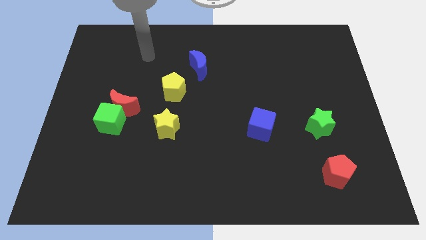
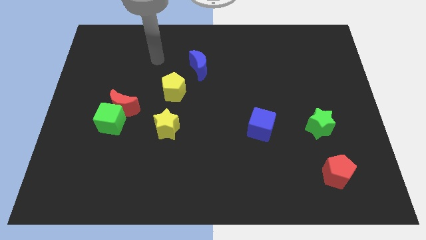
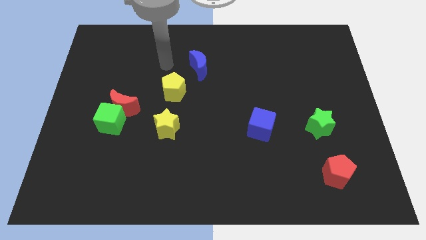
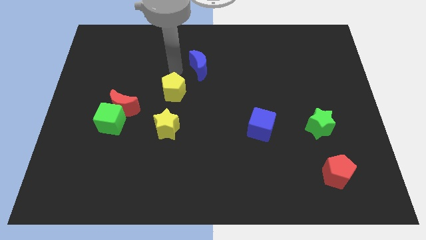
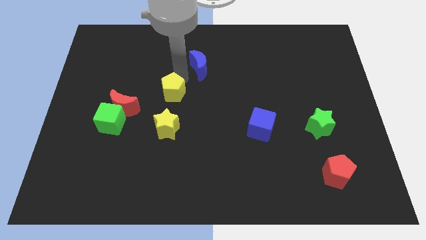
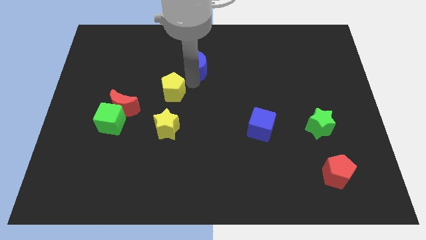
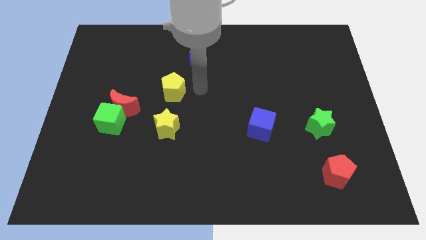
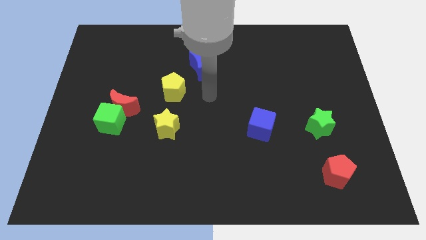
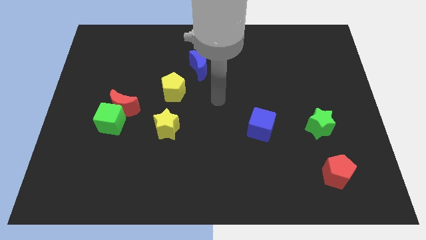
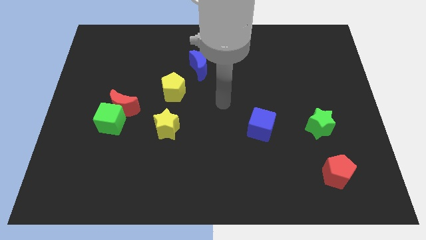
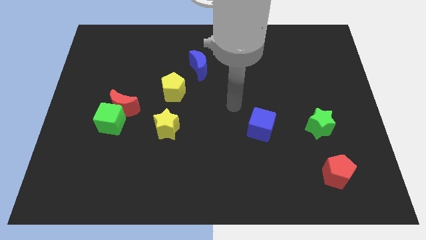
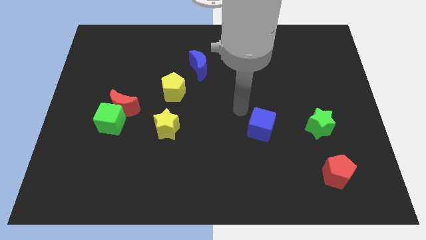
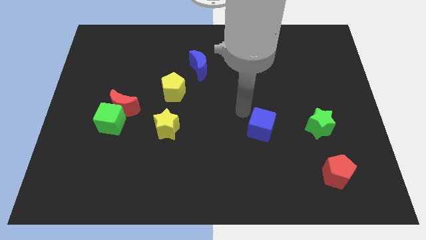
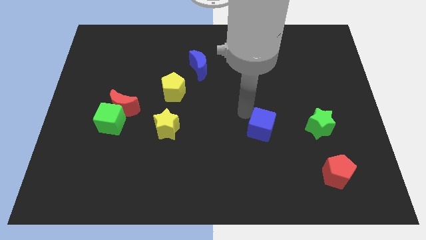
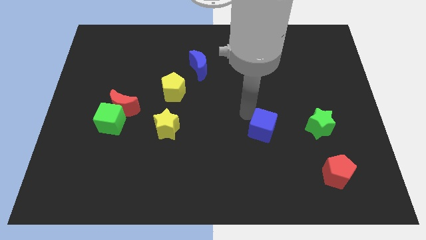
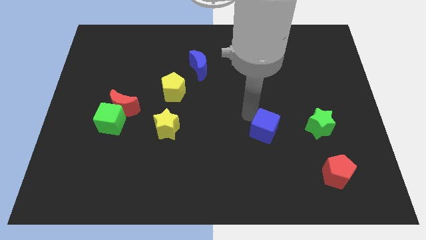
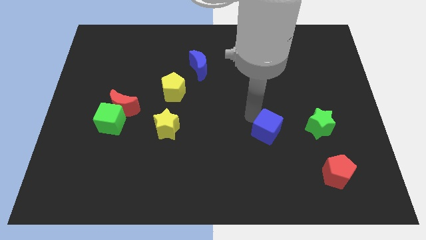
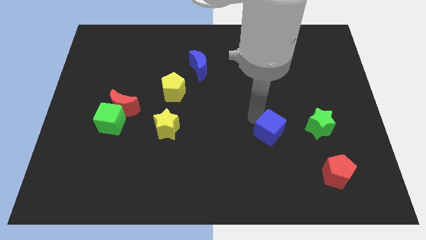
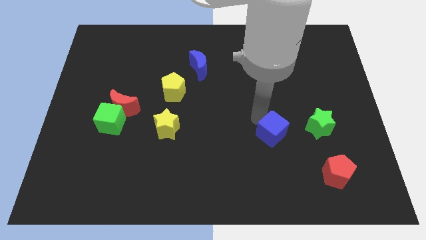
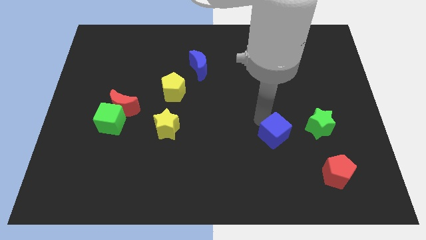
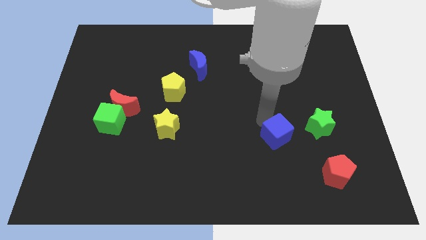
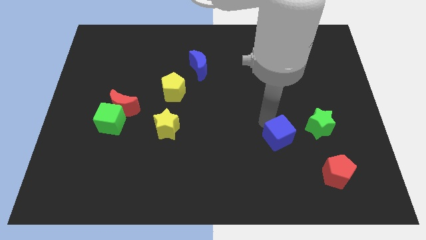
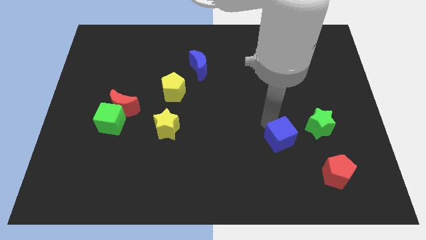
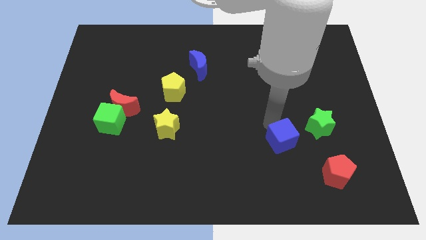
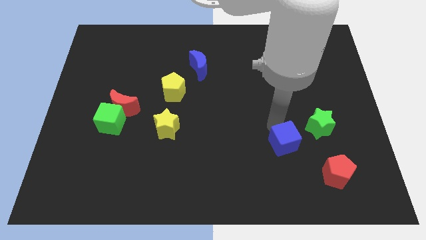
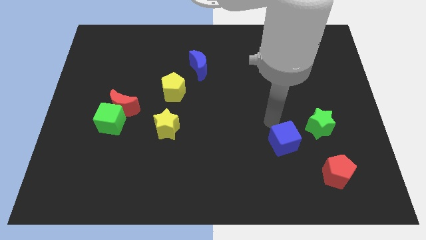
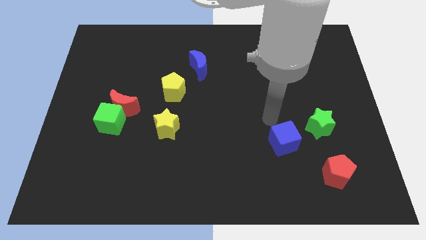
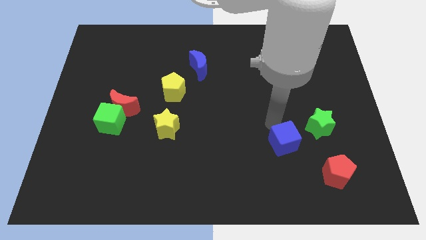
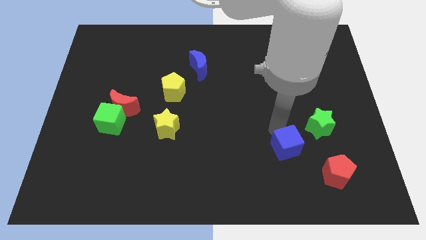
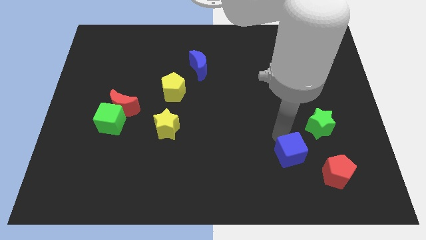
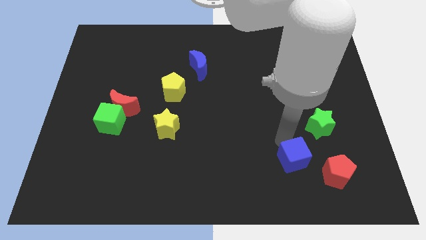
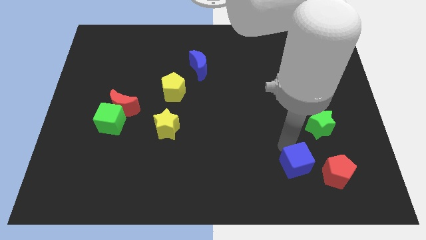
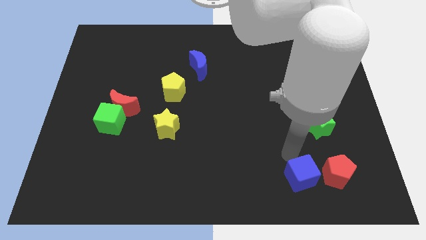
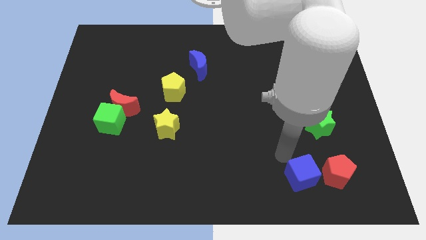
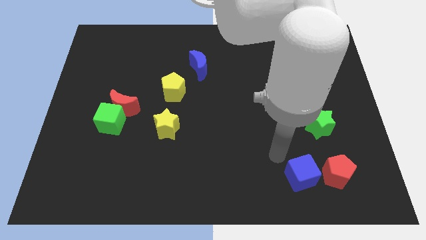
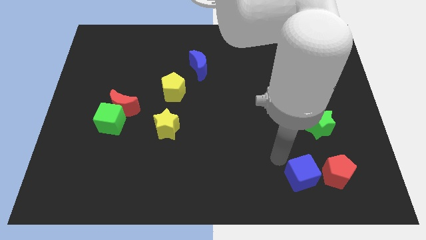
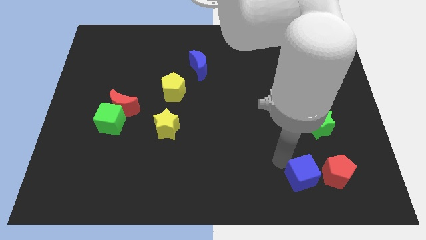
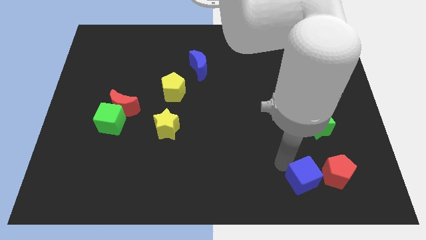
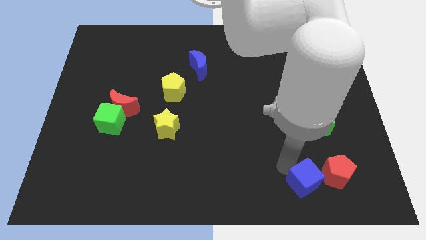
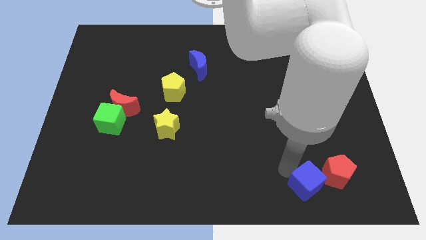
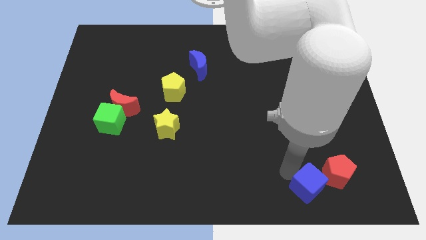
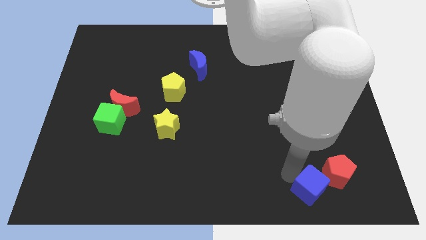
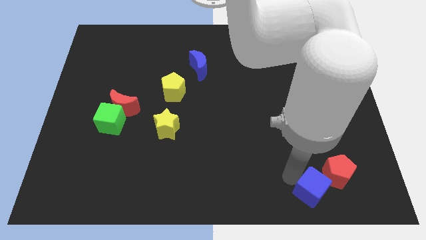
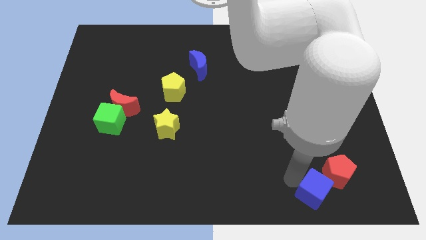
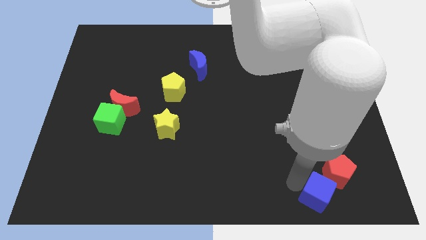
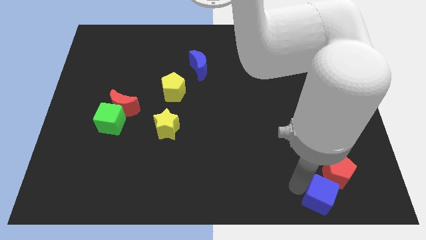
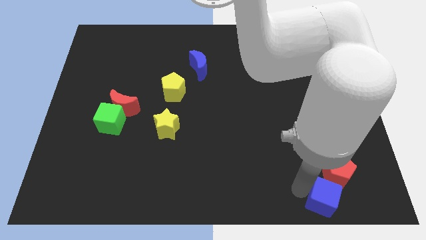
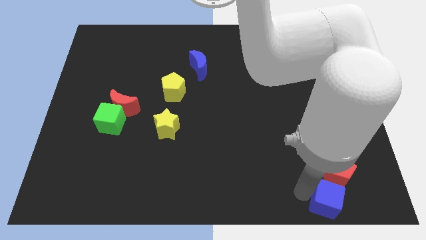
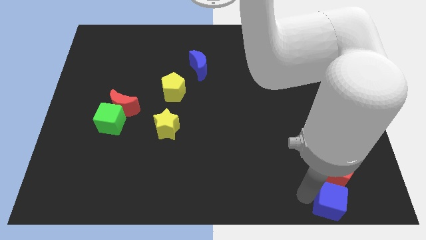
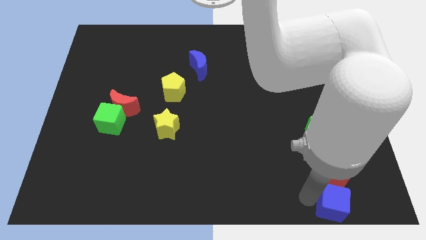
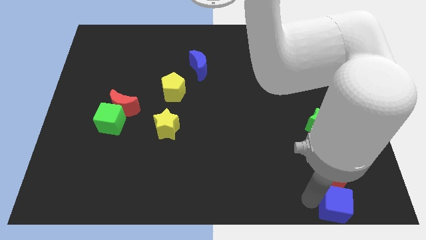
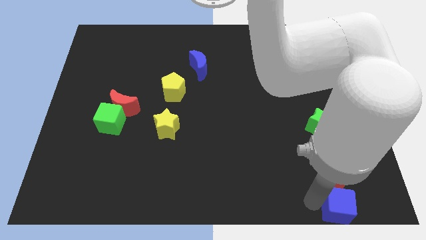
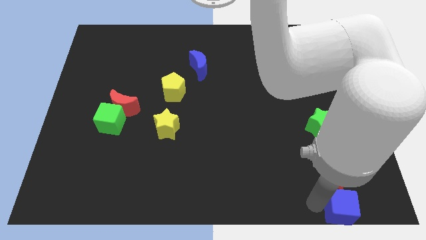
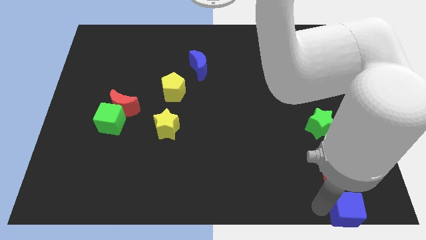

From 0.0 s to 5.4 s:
slide the blue cube to the bottom right

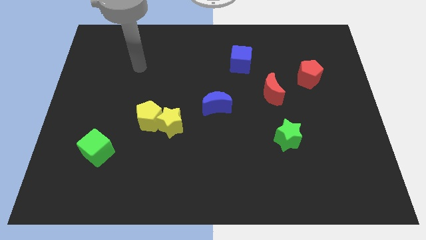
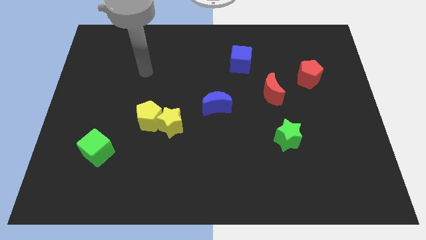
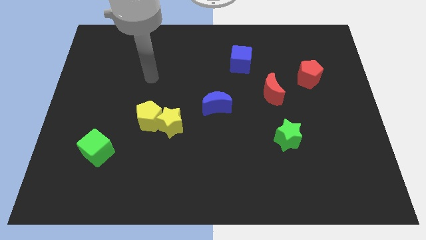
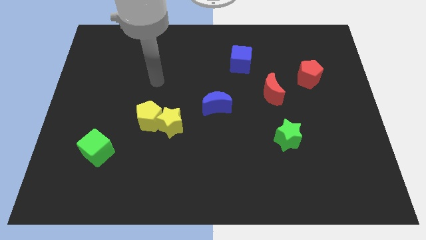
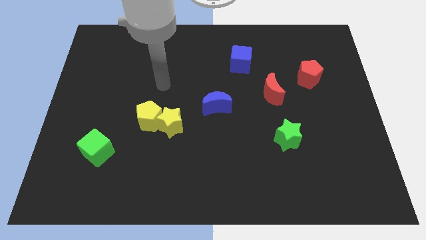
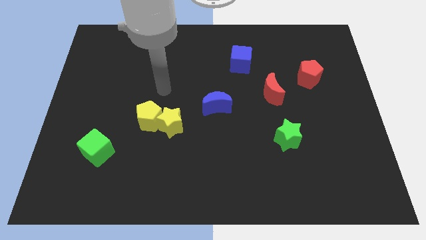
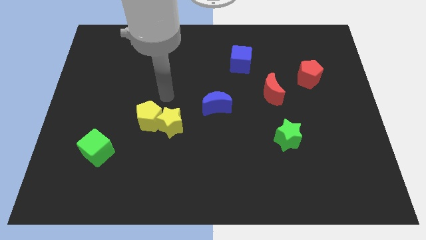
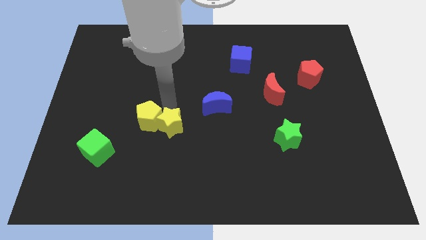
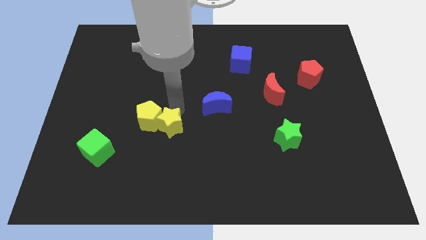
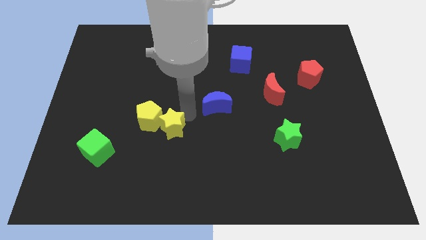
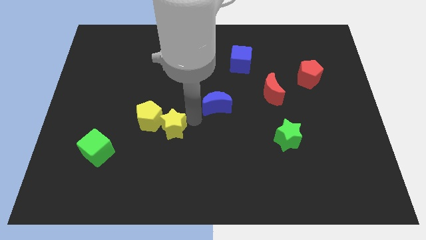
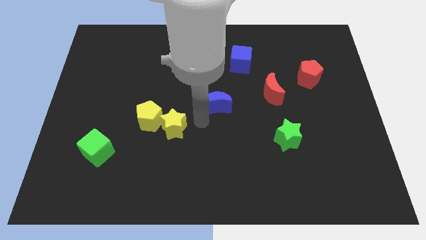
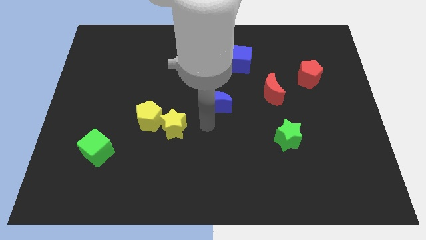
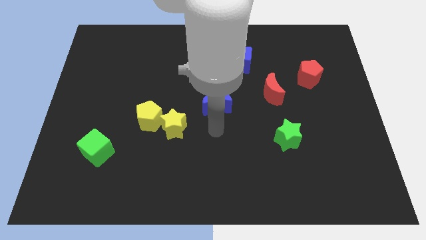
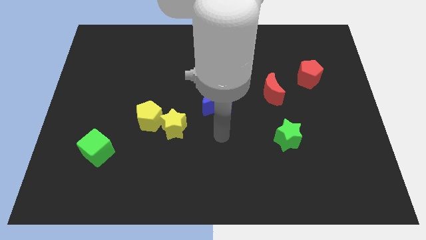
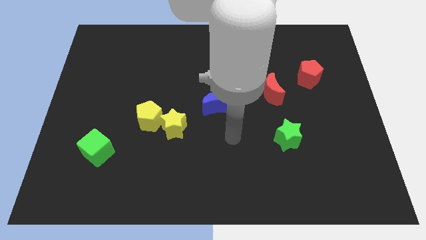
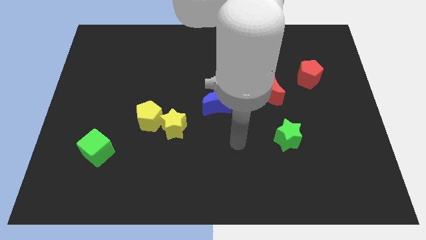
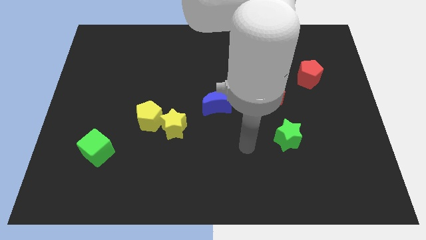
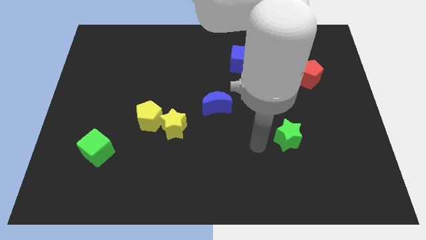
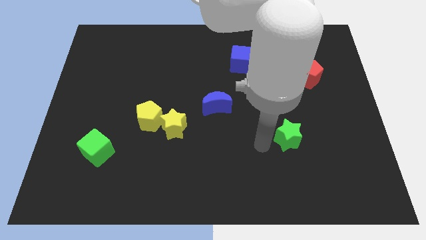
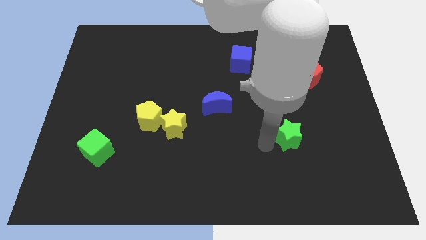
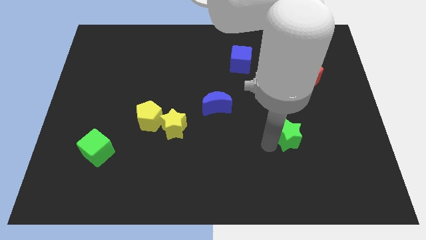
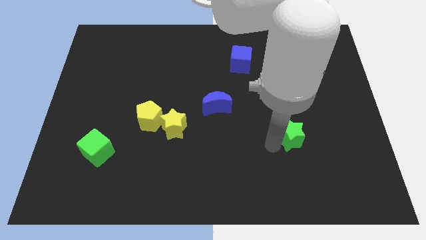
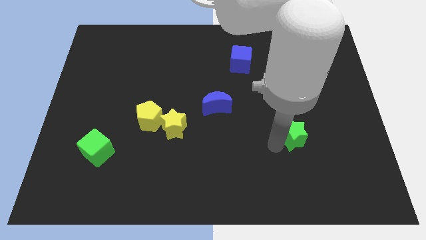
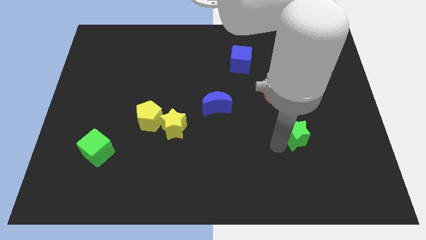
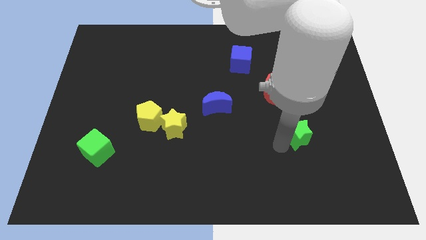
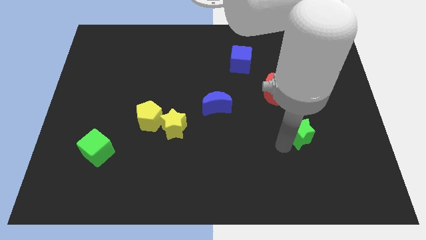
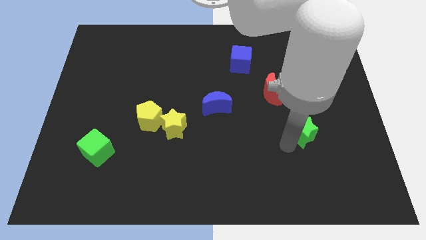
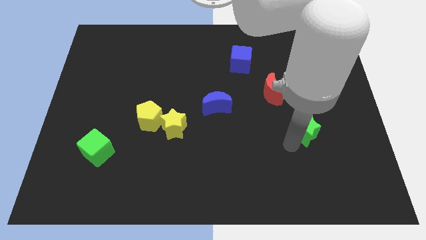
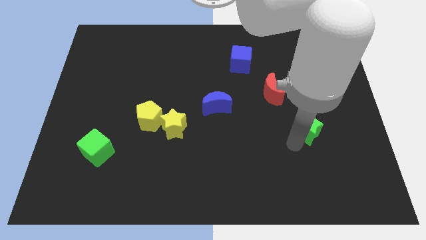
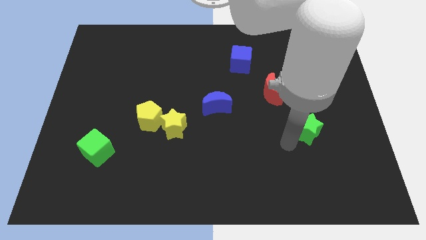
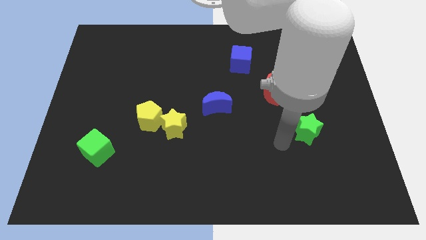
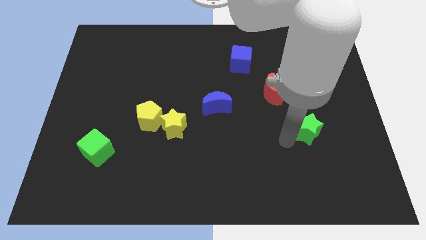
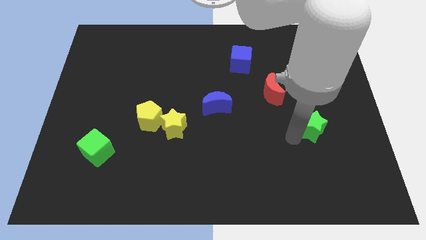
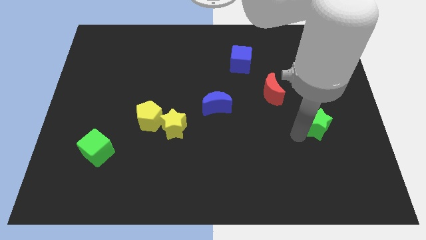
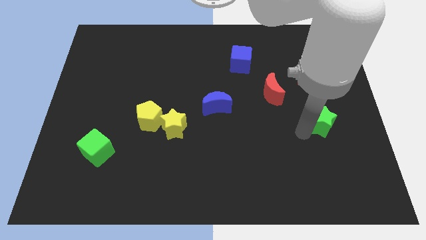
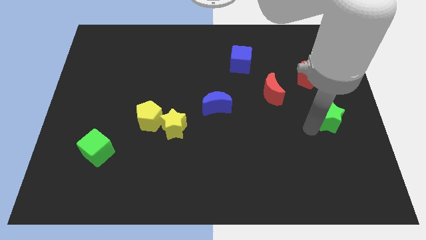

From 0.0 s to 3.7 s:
push the green star to the right side of the board
